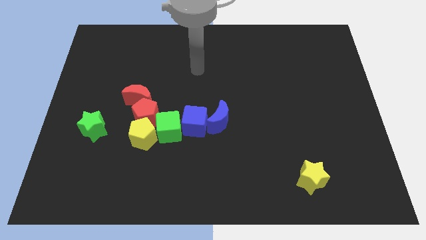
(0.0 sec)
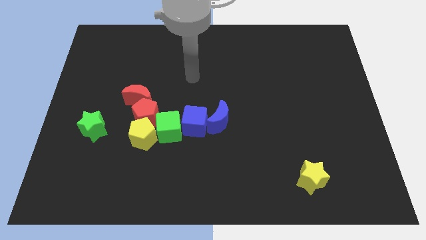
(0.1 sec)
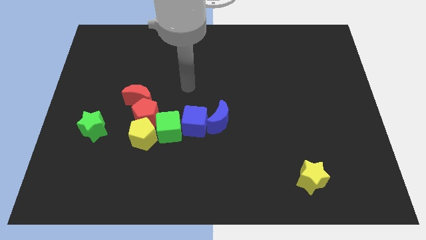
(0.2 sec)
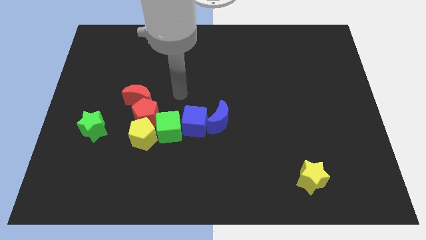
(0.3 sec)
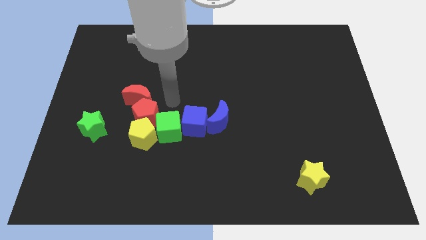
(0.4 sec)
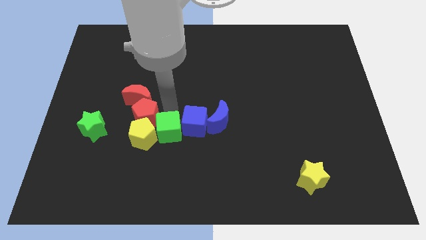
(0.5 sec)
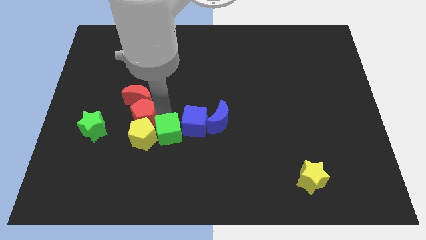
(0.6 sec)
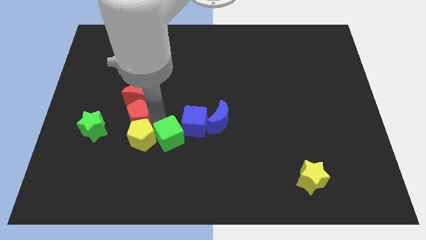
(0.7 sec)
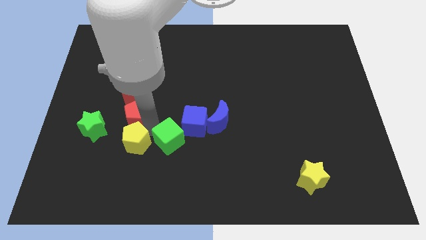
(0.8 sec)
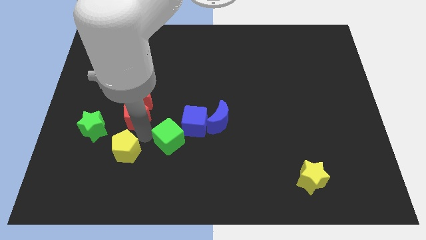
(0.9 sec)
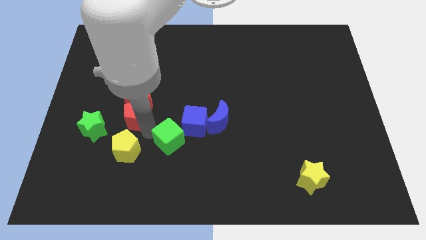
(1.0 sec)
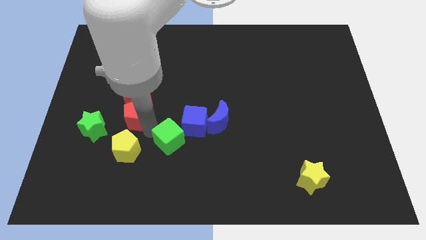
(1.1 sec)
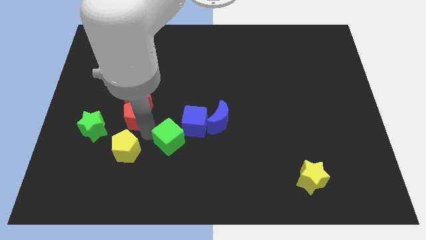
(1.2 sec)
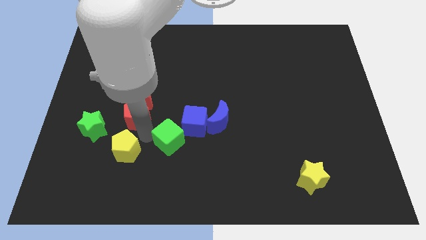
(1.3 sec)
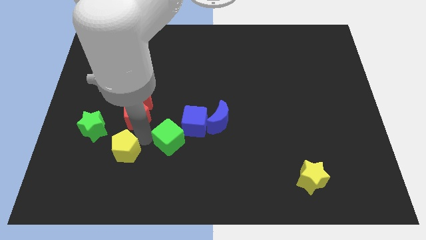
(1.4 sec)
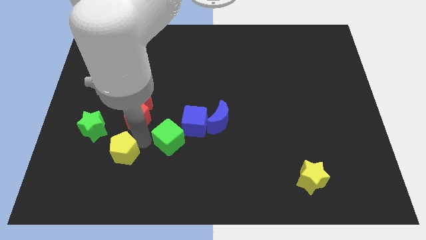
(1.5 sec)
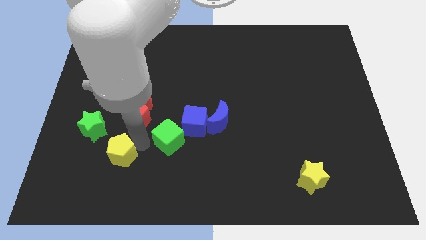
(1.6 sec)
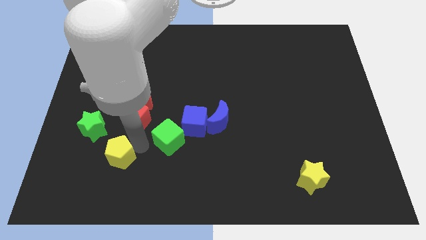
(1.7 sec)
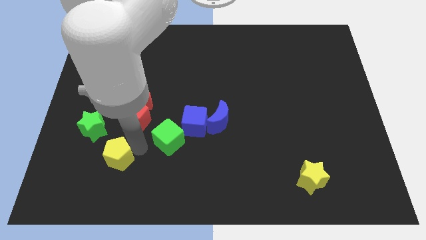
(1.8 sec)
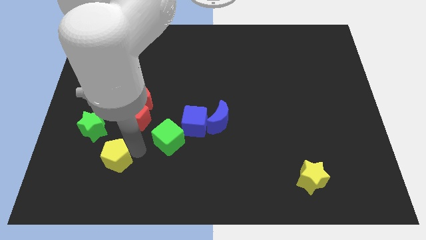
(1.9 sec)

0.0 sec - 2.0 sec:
separate the yellow pentagon from the red pentagon and green cube

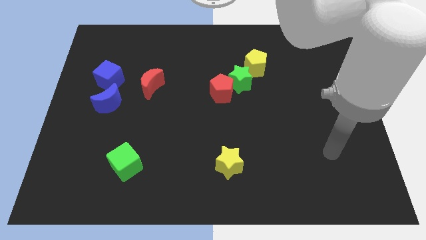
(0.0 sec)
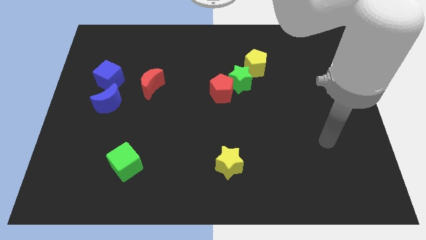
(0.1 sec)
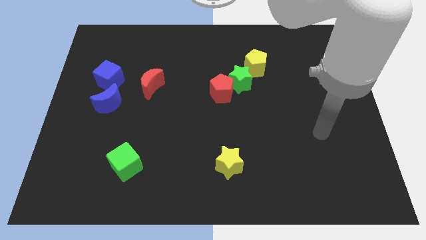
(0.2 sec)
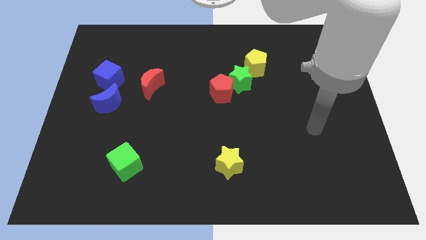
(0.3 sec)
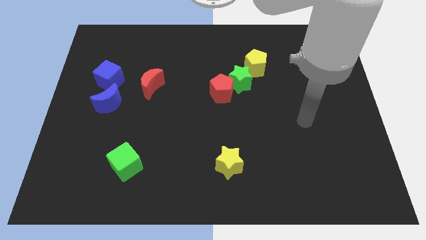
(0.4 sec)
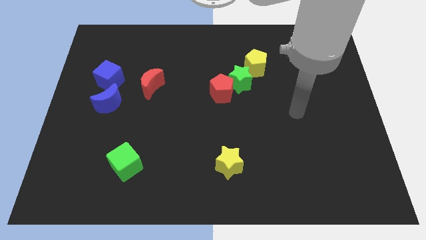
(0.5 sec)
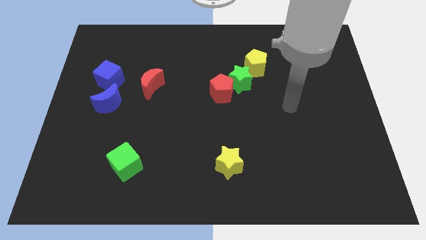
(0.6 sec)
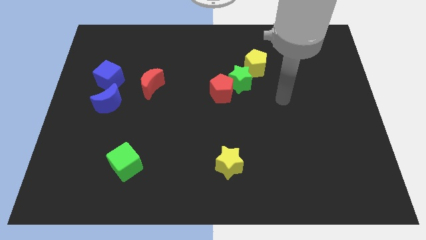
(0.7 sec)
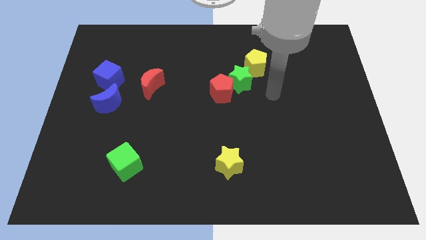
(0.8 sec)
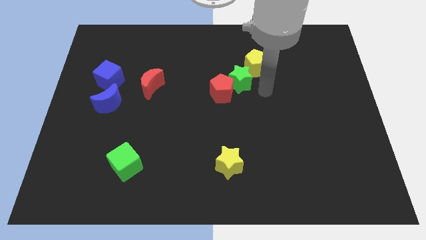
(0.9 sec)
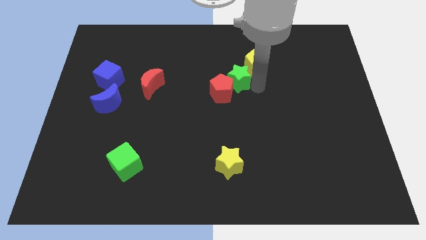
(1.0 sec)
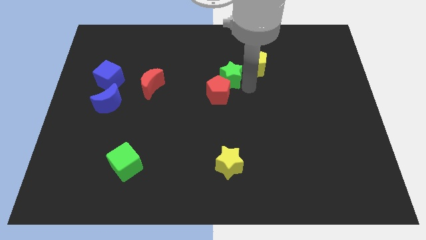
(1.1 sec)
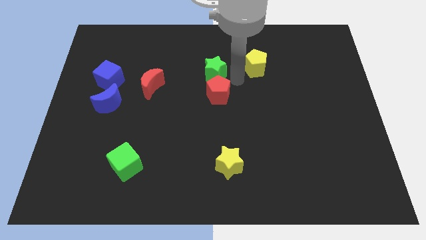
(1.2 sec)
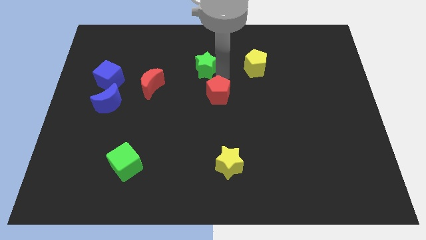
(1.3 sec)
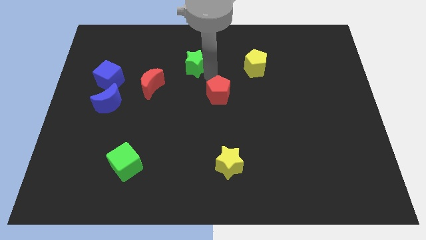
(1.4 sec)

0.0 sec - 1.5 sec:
move the red pentagon away from the green star

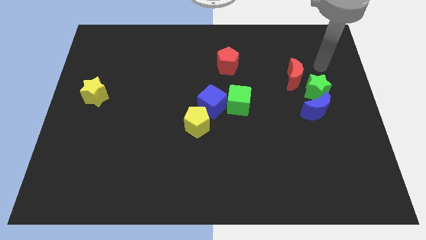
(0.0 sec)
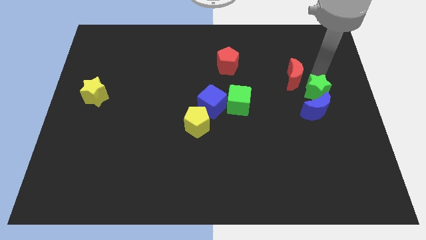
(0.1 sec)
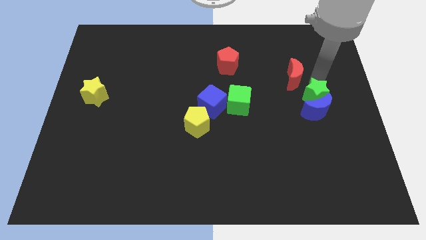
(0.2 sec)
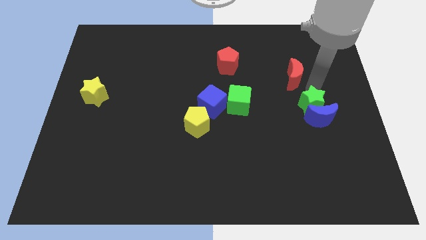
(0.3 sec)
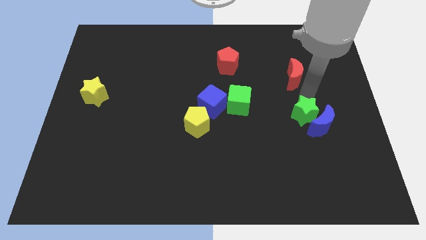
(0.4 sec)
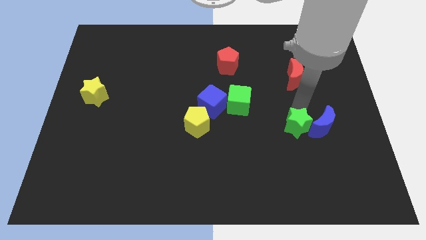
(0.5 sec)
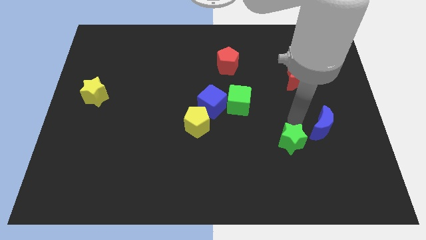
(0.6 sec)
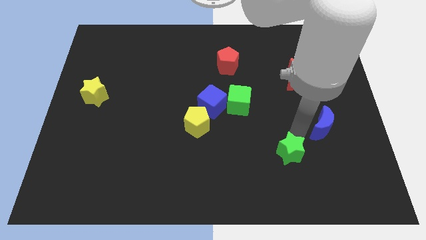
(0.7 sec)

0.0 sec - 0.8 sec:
separate the blue moon from the green star

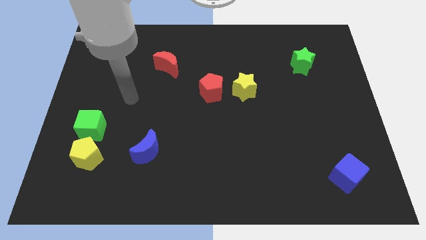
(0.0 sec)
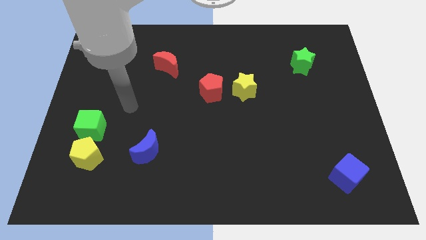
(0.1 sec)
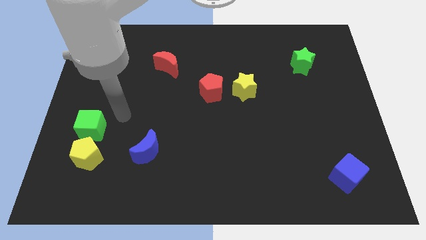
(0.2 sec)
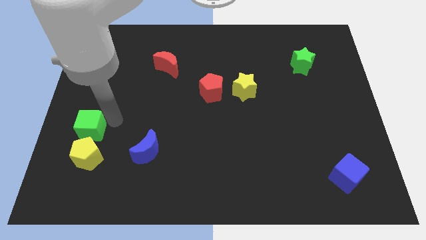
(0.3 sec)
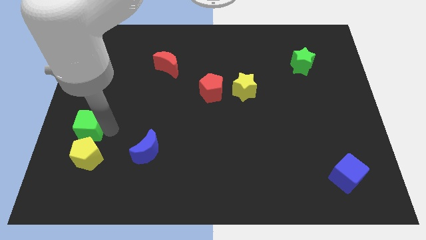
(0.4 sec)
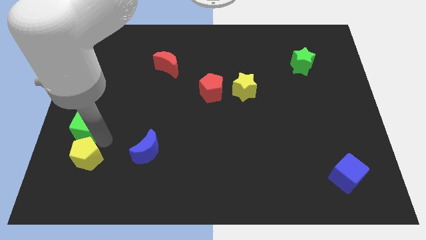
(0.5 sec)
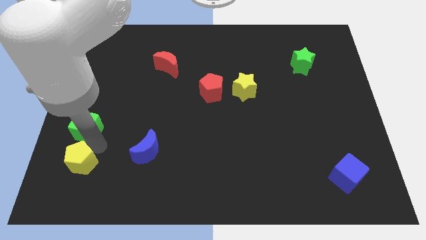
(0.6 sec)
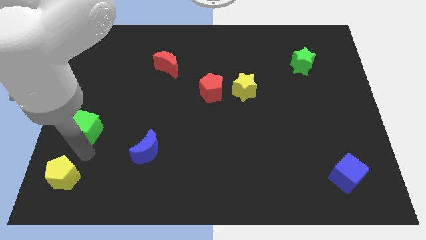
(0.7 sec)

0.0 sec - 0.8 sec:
pull the green cube apart from the yellow pentagon

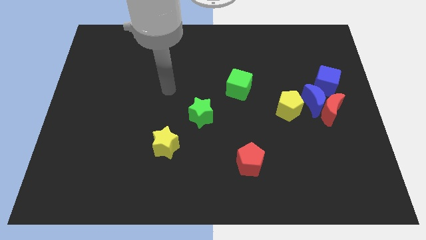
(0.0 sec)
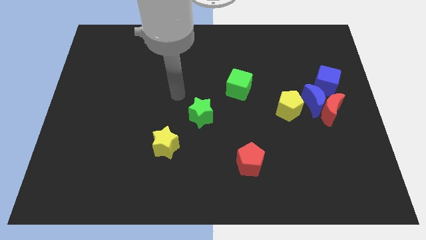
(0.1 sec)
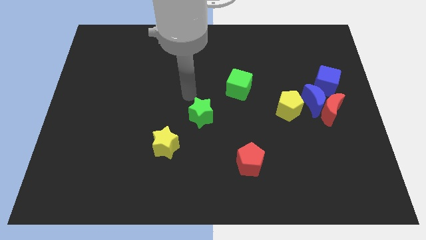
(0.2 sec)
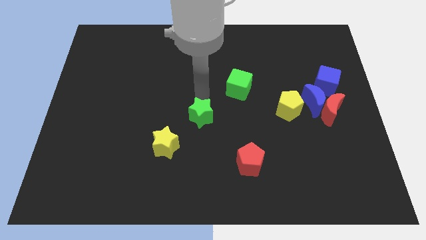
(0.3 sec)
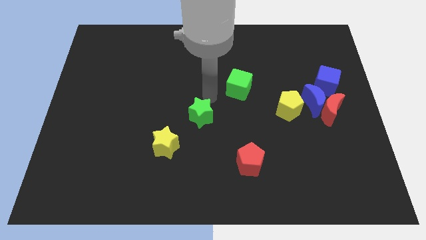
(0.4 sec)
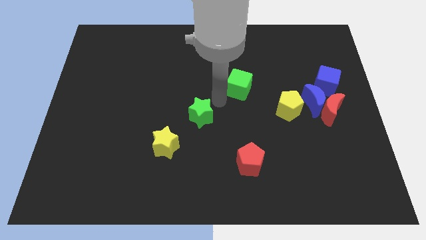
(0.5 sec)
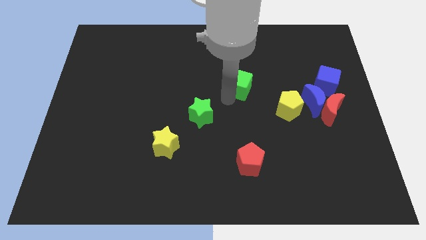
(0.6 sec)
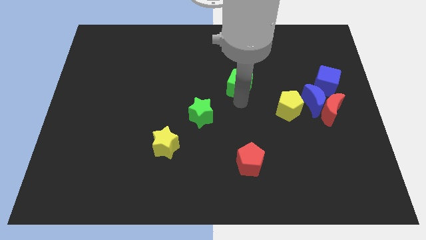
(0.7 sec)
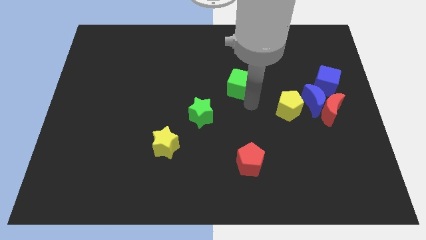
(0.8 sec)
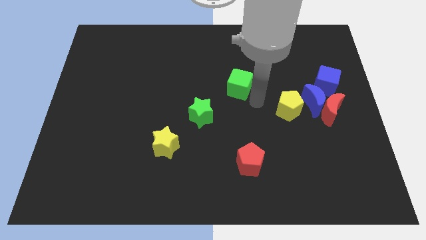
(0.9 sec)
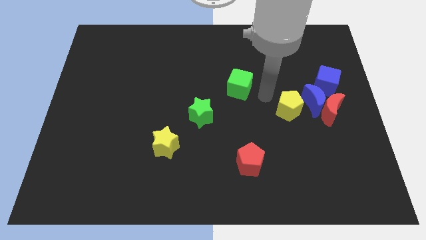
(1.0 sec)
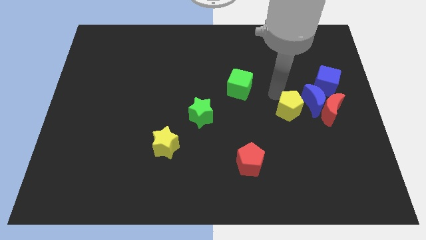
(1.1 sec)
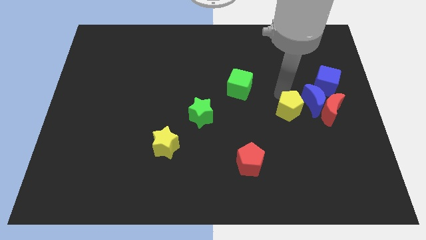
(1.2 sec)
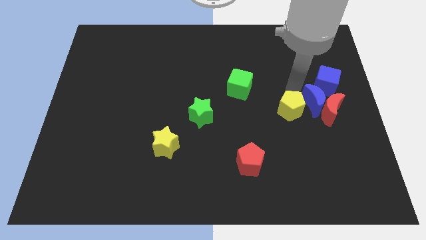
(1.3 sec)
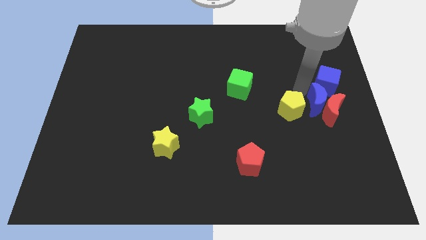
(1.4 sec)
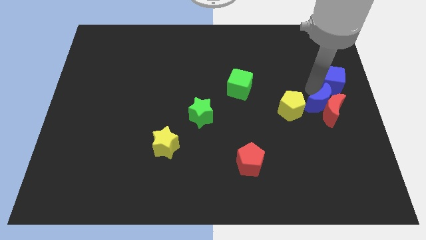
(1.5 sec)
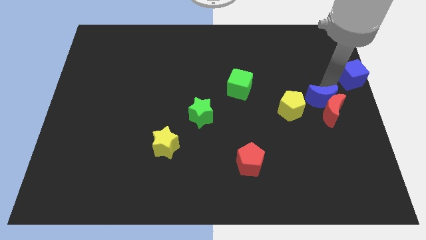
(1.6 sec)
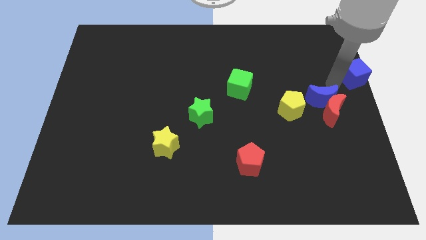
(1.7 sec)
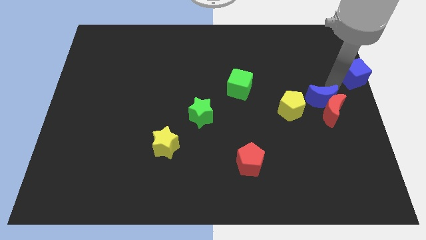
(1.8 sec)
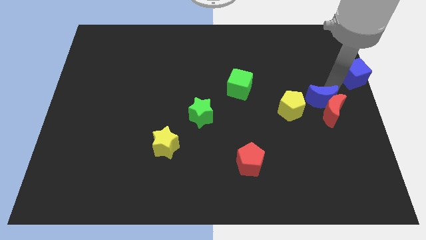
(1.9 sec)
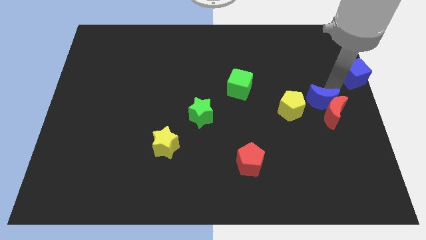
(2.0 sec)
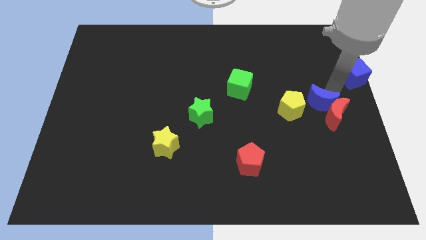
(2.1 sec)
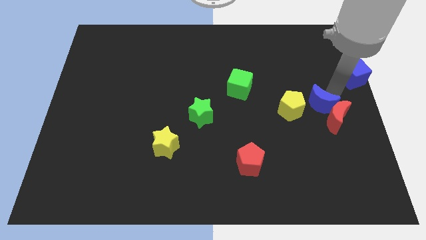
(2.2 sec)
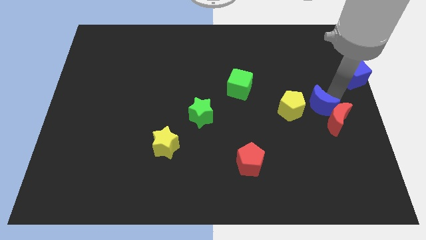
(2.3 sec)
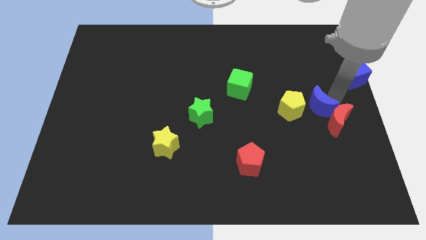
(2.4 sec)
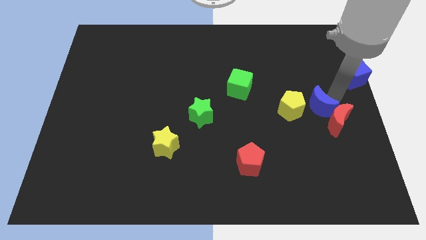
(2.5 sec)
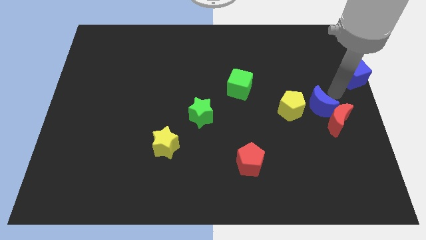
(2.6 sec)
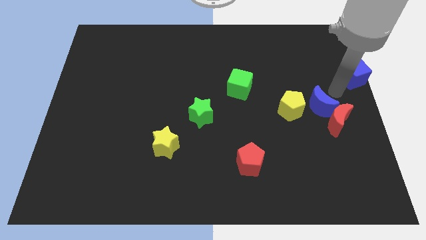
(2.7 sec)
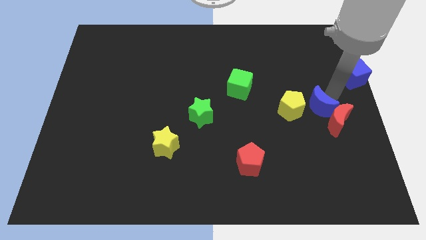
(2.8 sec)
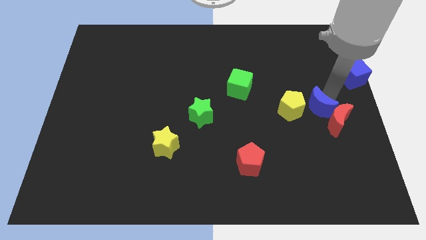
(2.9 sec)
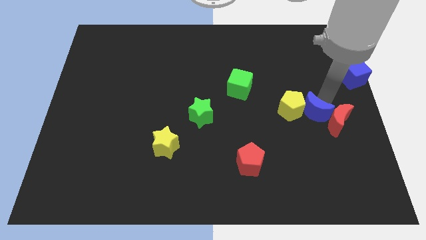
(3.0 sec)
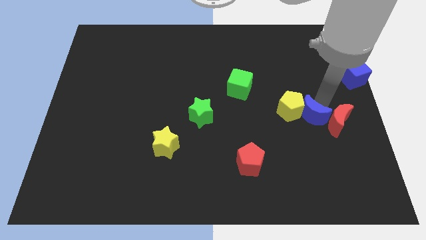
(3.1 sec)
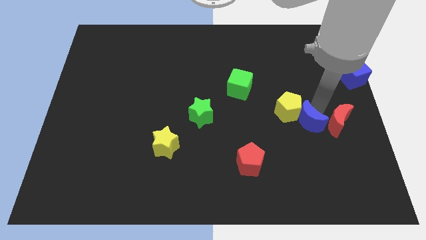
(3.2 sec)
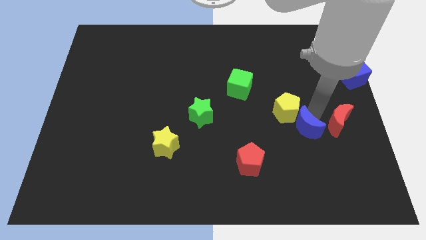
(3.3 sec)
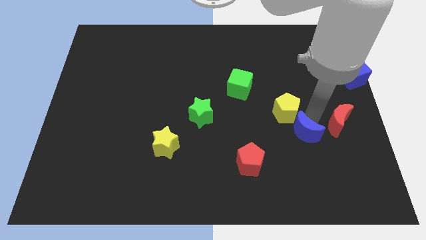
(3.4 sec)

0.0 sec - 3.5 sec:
separate the blue moon from the group

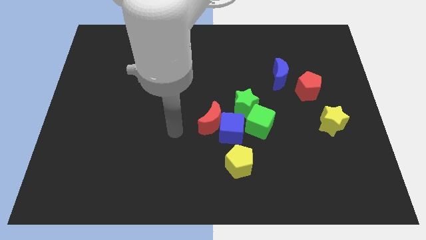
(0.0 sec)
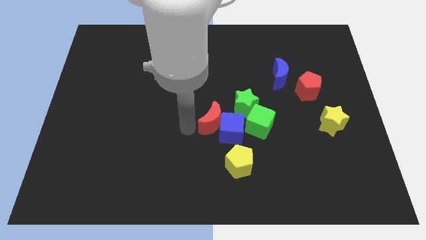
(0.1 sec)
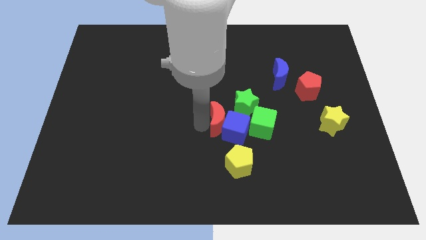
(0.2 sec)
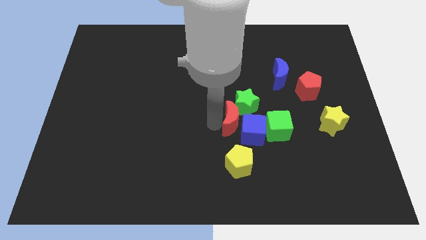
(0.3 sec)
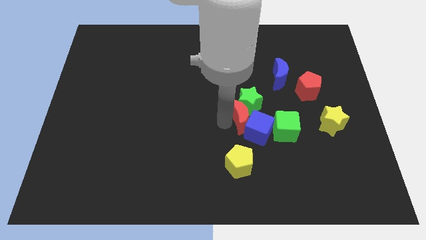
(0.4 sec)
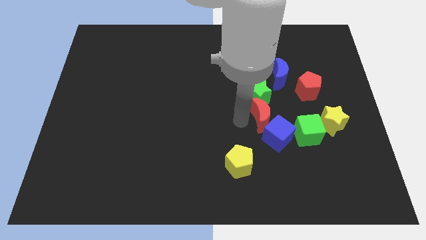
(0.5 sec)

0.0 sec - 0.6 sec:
separate the green cube from the green star and blue cube

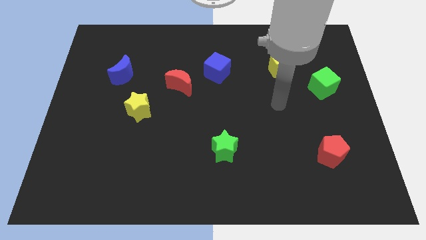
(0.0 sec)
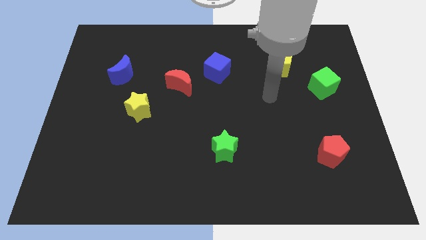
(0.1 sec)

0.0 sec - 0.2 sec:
pull the red moon apart from the blue cube
